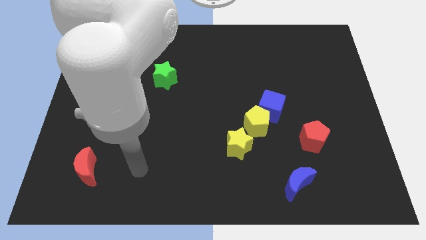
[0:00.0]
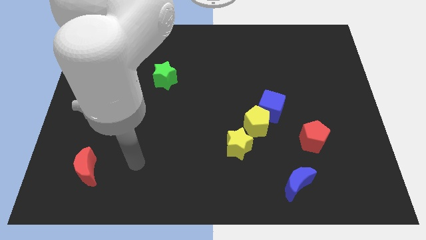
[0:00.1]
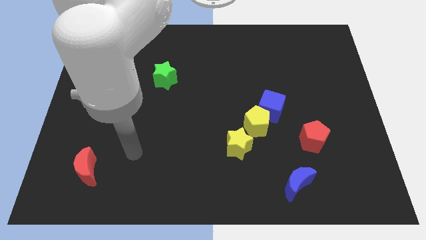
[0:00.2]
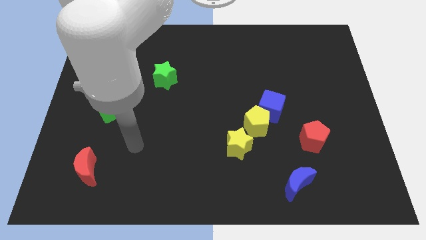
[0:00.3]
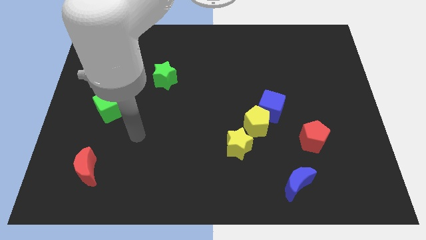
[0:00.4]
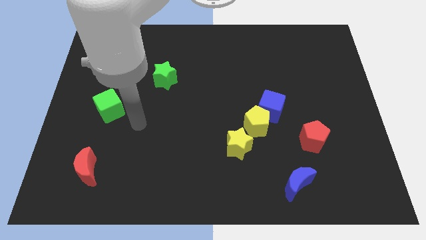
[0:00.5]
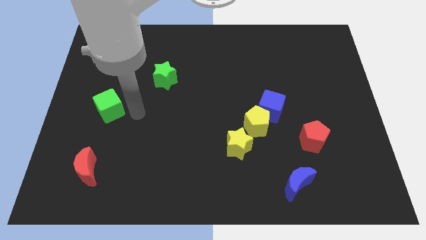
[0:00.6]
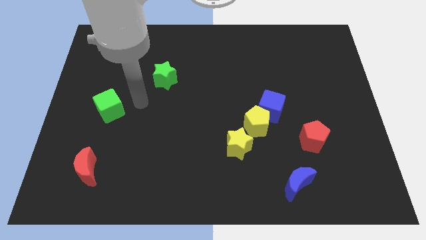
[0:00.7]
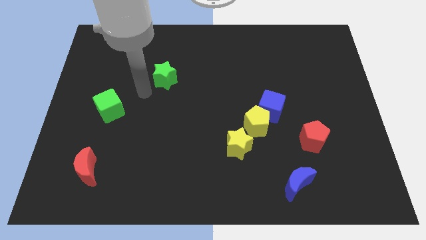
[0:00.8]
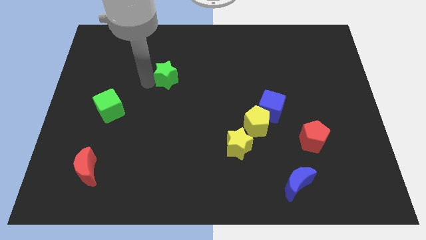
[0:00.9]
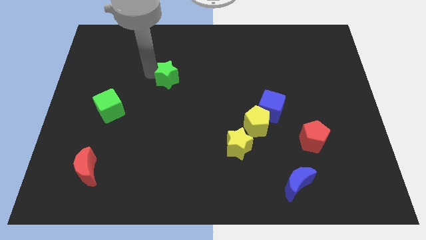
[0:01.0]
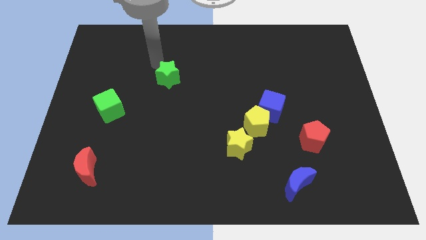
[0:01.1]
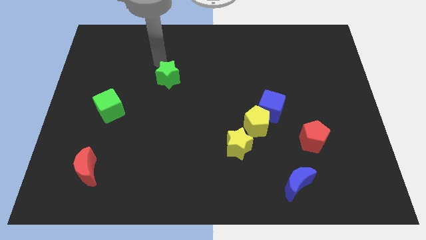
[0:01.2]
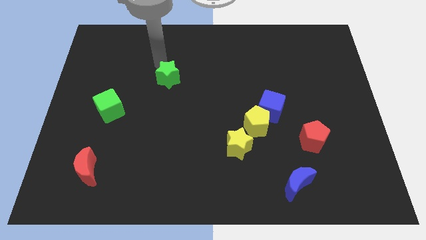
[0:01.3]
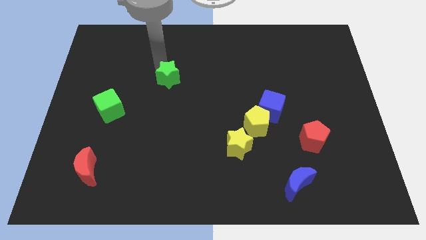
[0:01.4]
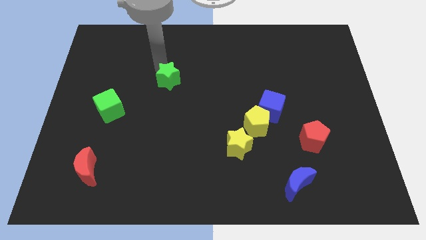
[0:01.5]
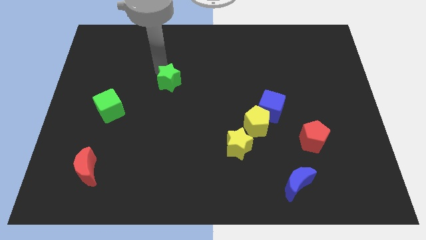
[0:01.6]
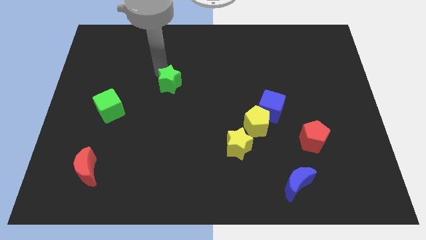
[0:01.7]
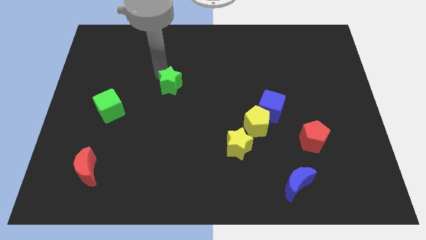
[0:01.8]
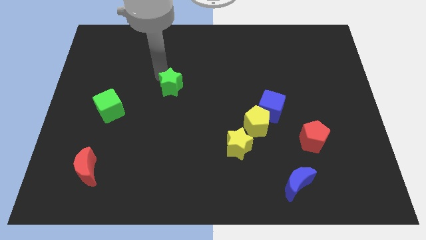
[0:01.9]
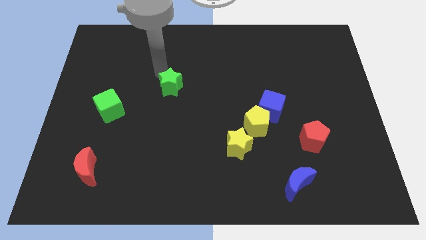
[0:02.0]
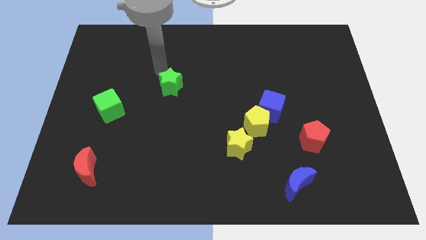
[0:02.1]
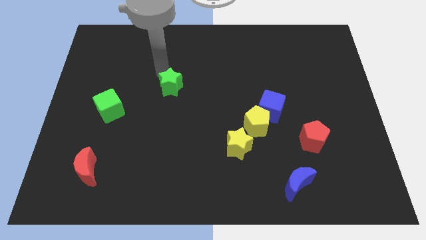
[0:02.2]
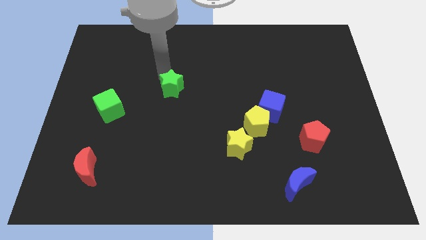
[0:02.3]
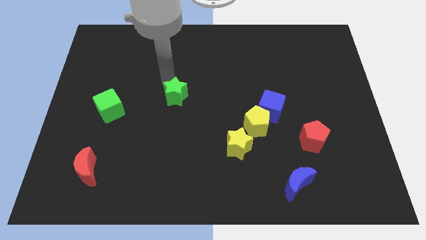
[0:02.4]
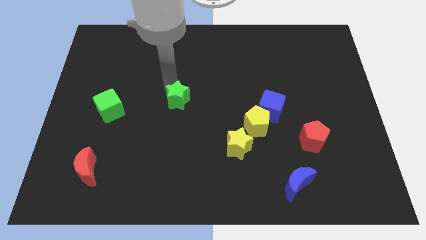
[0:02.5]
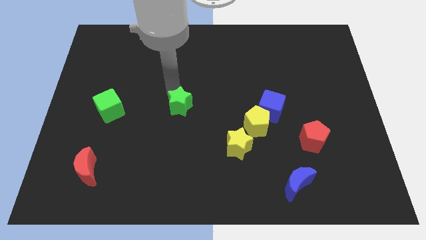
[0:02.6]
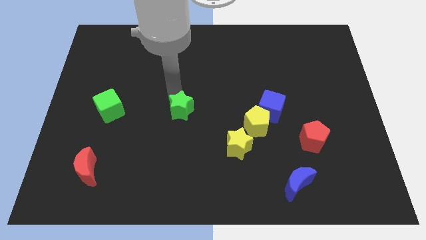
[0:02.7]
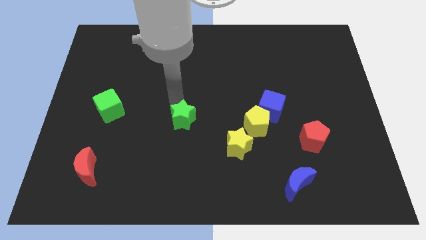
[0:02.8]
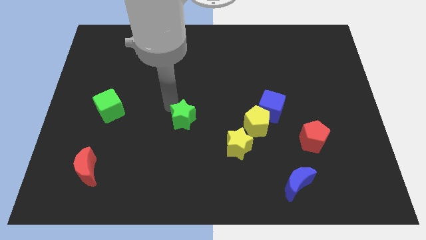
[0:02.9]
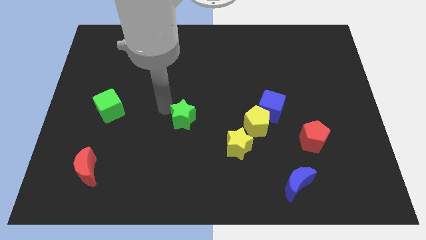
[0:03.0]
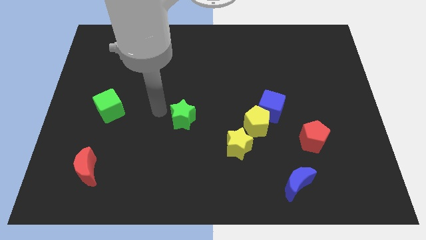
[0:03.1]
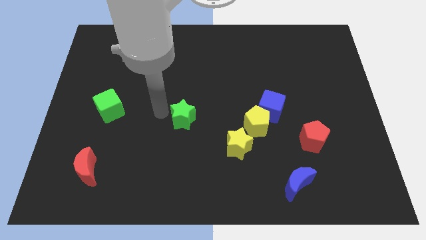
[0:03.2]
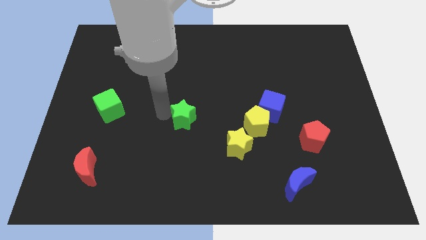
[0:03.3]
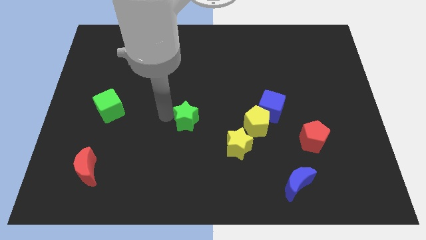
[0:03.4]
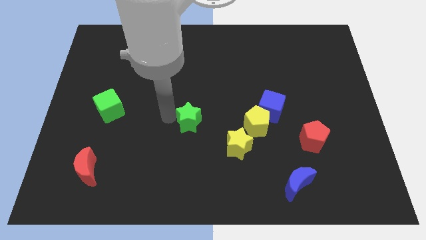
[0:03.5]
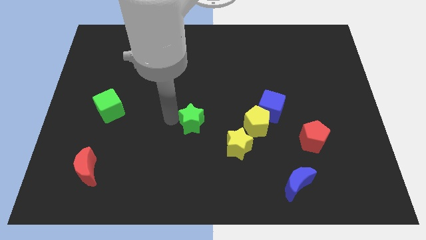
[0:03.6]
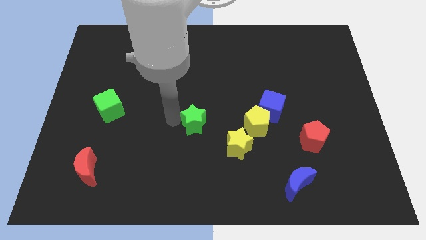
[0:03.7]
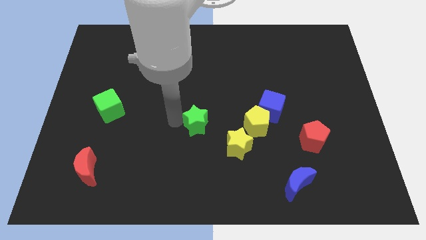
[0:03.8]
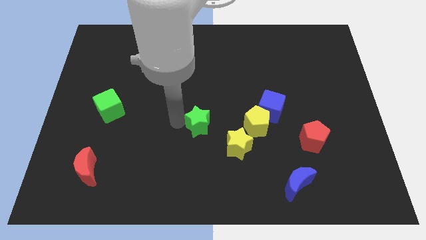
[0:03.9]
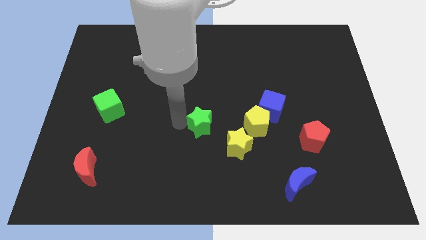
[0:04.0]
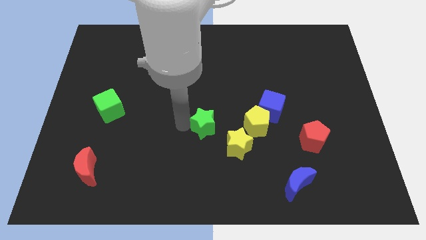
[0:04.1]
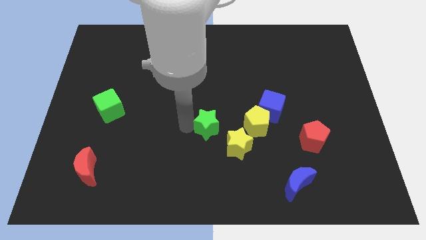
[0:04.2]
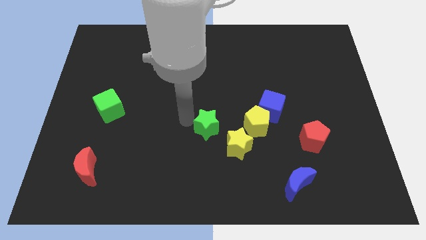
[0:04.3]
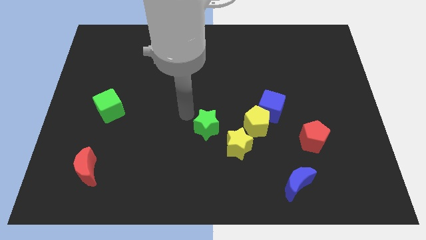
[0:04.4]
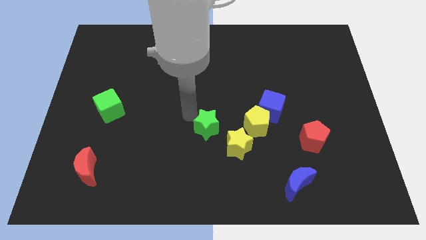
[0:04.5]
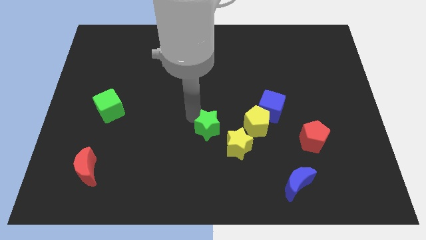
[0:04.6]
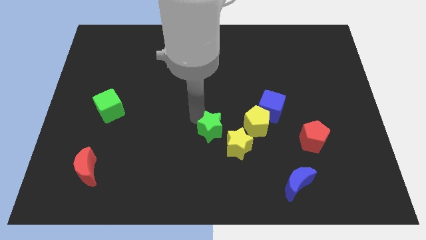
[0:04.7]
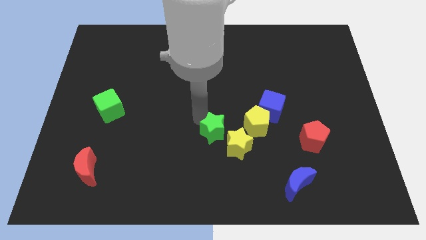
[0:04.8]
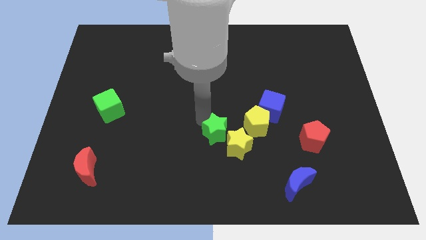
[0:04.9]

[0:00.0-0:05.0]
slide the green star next to the yellow star
